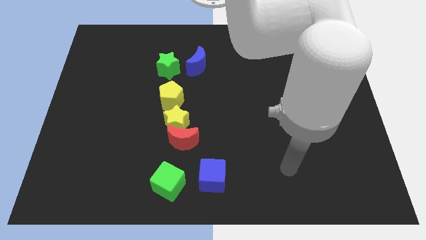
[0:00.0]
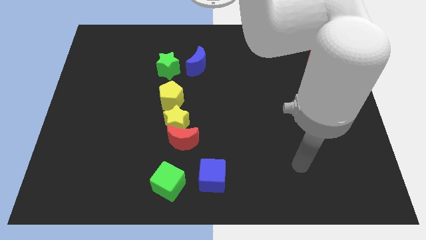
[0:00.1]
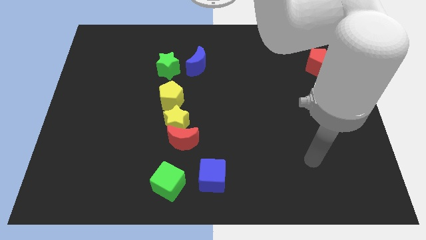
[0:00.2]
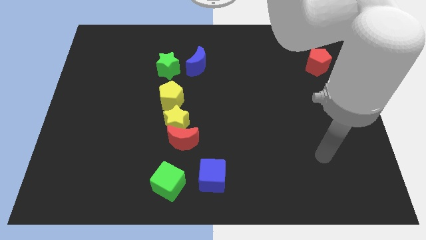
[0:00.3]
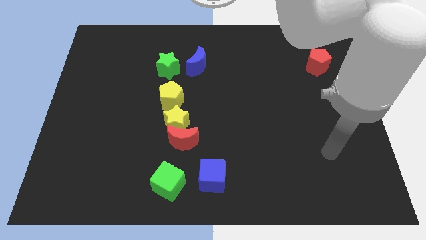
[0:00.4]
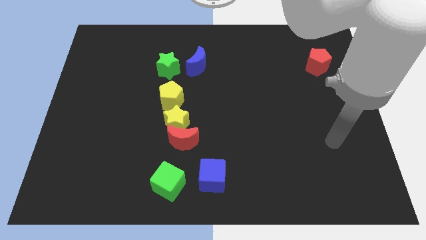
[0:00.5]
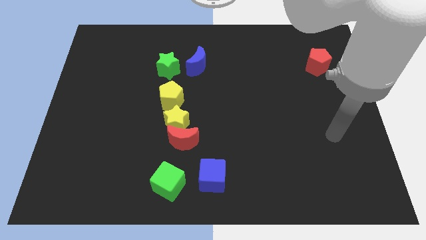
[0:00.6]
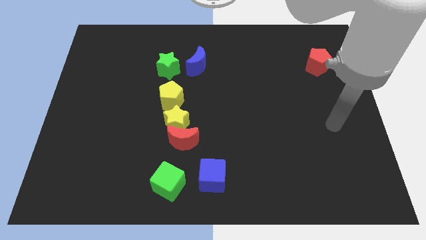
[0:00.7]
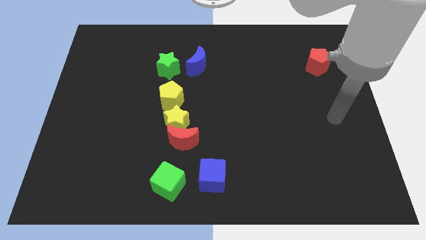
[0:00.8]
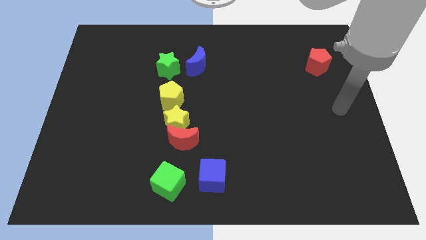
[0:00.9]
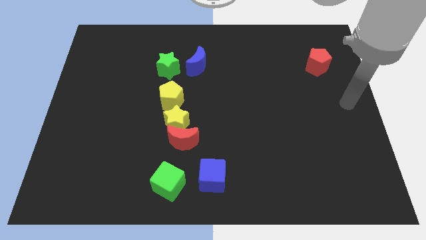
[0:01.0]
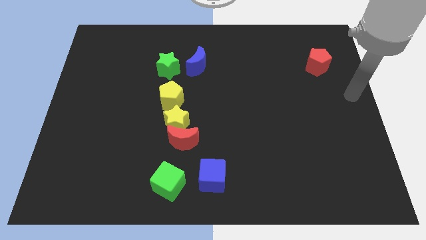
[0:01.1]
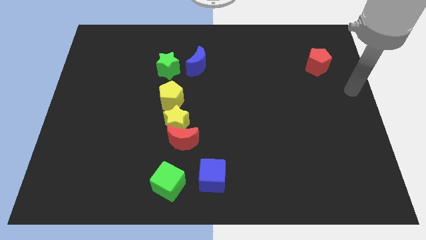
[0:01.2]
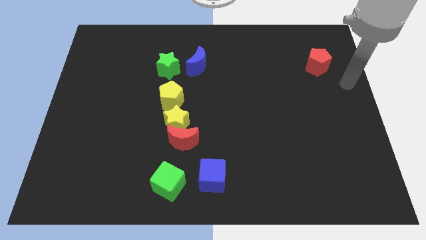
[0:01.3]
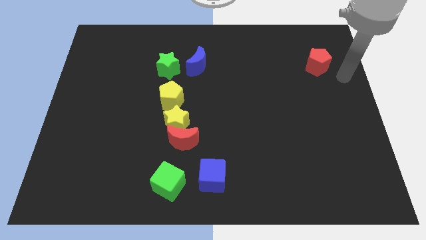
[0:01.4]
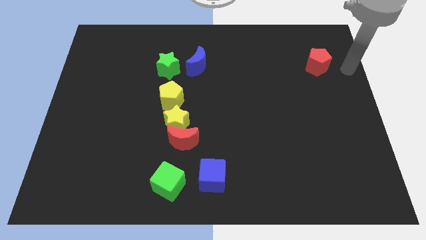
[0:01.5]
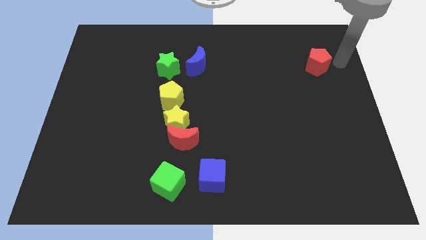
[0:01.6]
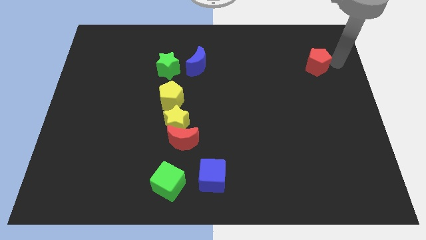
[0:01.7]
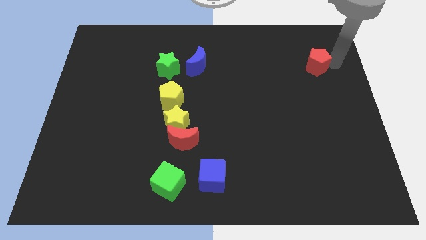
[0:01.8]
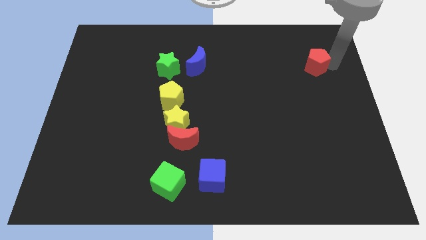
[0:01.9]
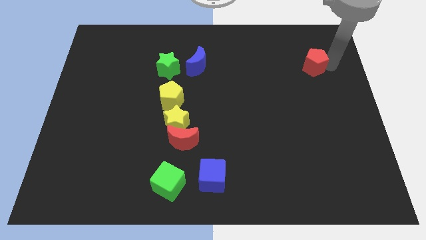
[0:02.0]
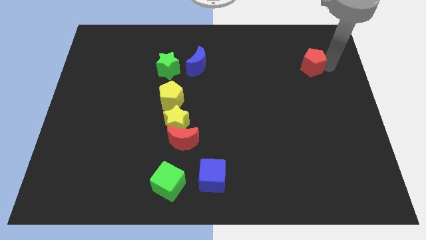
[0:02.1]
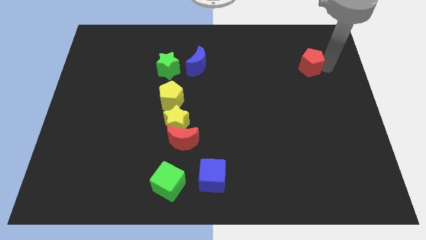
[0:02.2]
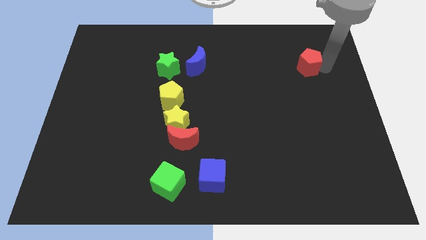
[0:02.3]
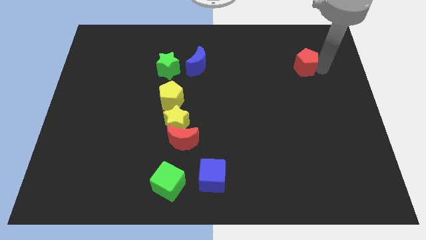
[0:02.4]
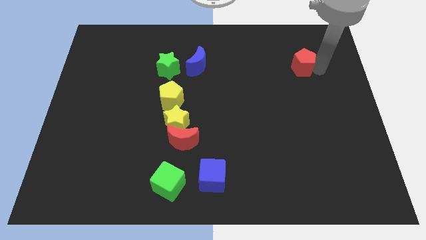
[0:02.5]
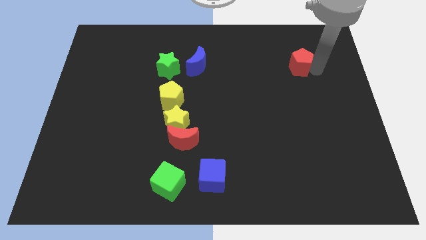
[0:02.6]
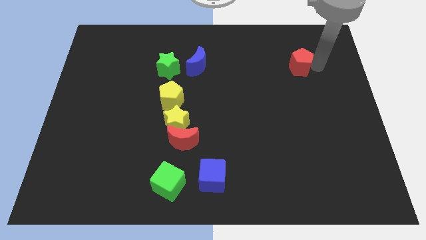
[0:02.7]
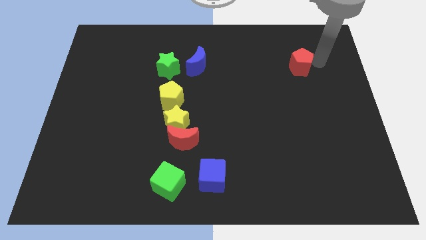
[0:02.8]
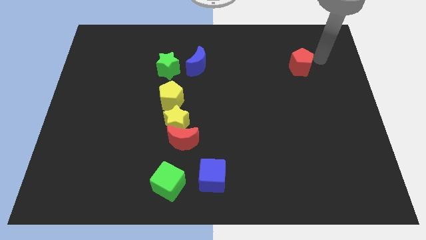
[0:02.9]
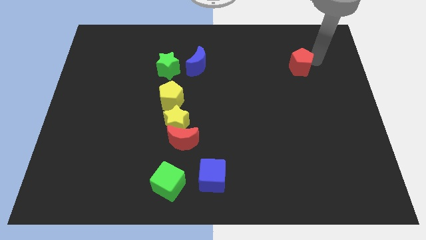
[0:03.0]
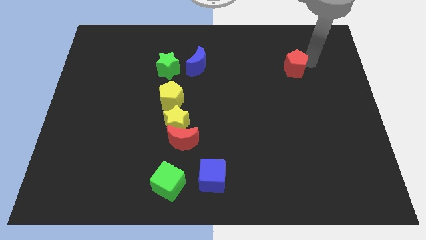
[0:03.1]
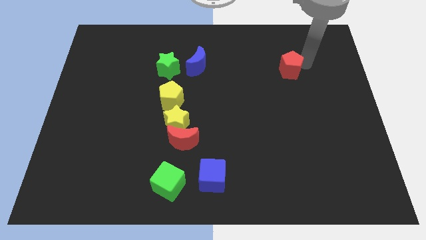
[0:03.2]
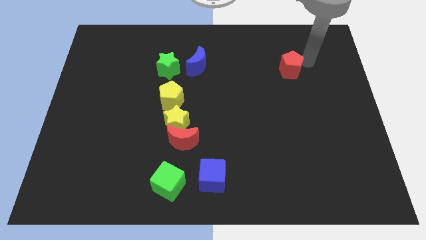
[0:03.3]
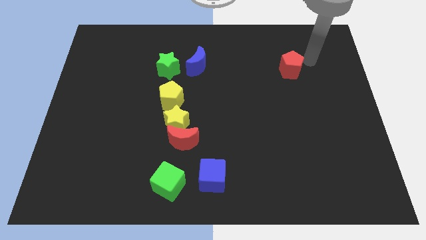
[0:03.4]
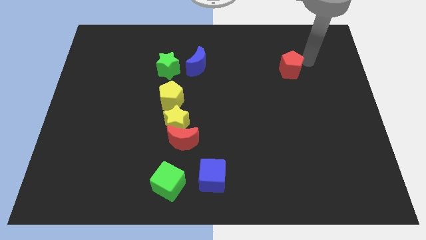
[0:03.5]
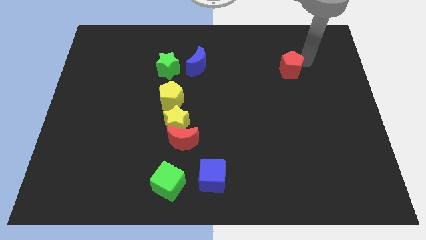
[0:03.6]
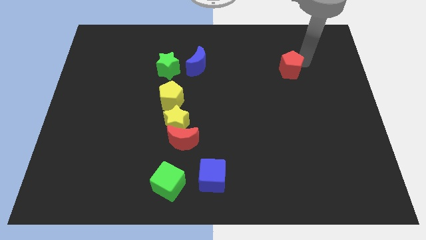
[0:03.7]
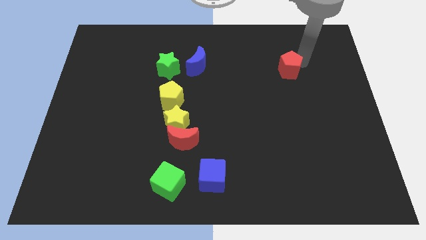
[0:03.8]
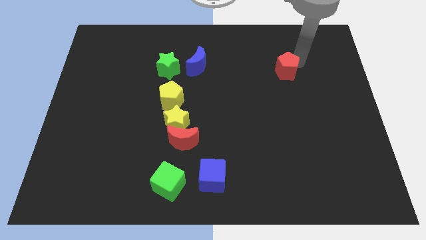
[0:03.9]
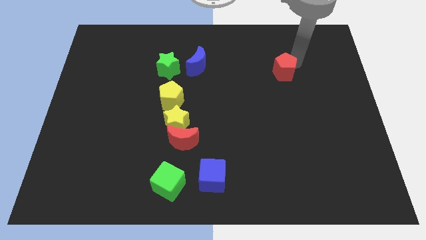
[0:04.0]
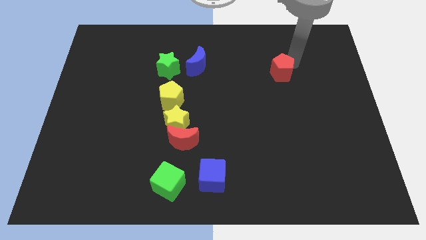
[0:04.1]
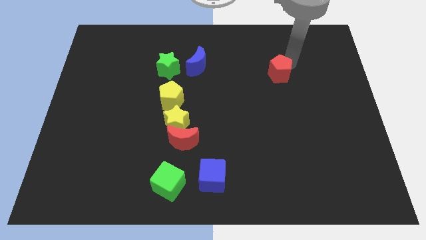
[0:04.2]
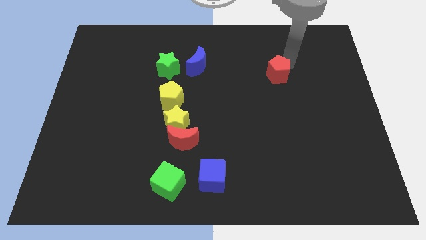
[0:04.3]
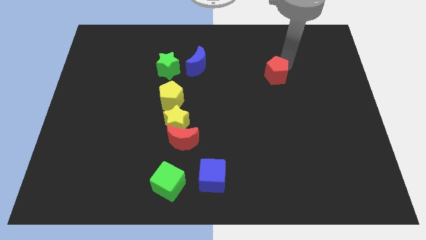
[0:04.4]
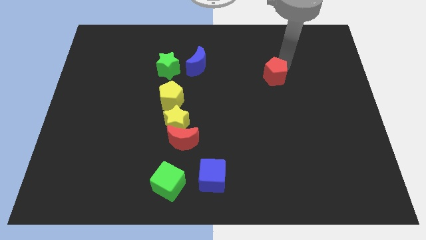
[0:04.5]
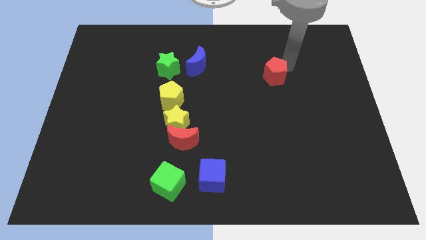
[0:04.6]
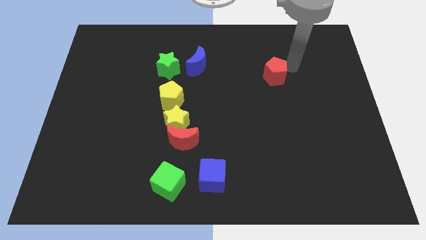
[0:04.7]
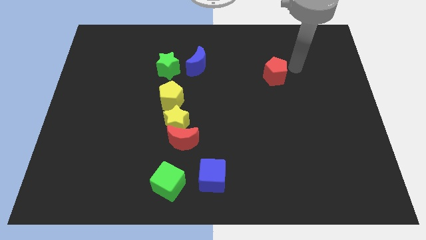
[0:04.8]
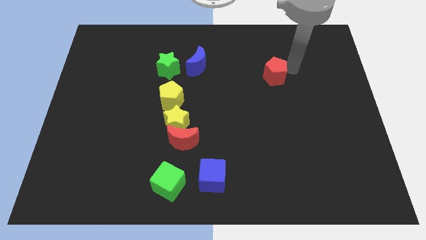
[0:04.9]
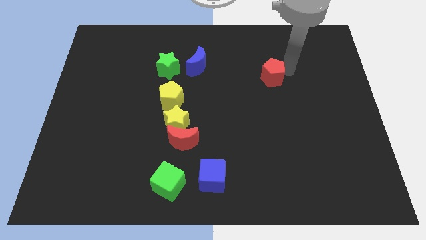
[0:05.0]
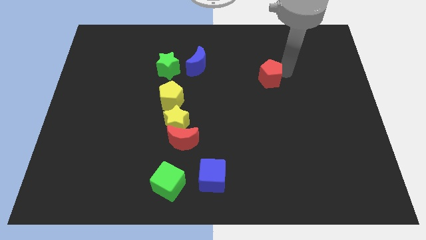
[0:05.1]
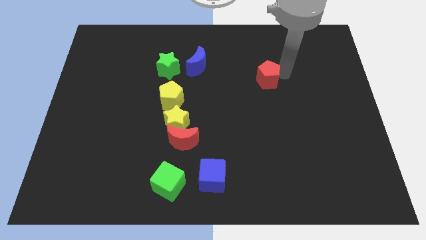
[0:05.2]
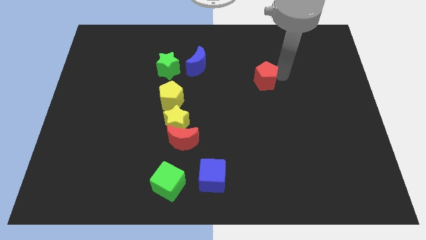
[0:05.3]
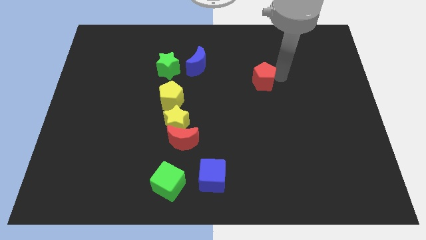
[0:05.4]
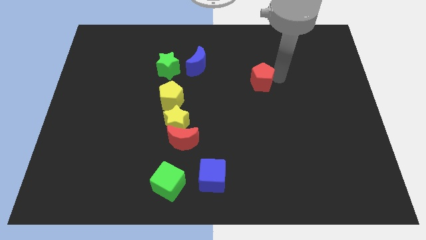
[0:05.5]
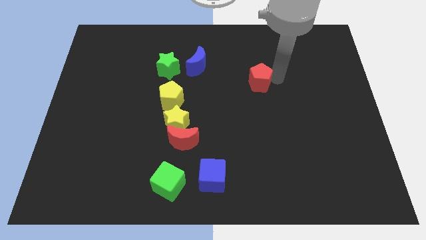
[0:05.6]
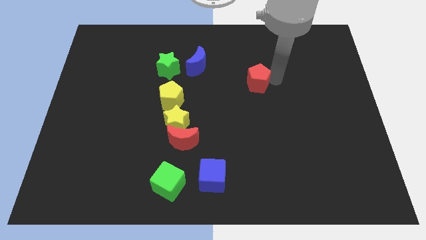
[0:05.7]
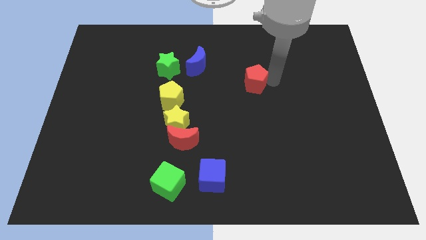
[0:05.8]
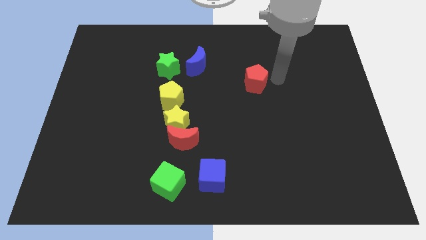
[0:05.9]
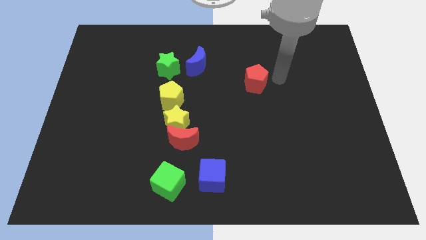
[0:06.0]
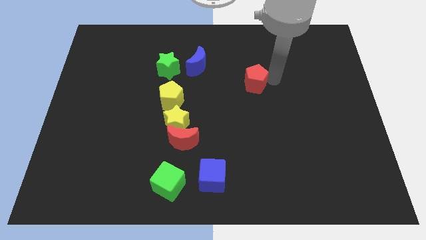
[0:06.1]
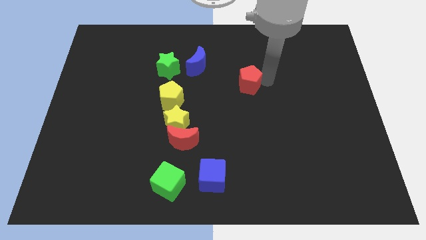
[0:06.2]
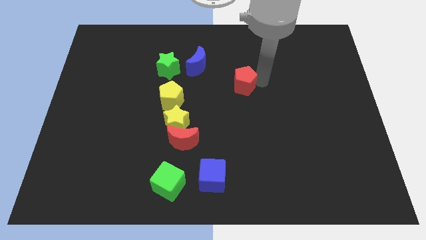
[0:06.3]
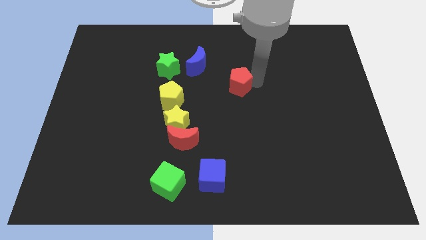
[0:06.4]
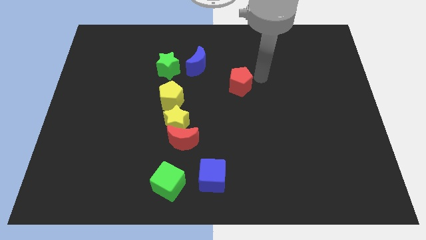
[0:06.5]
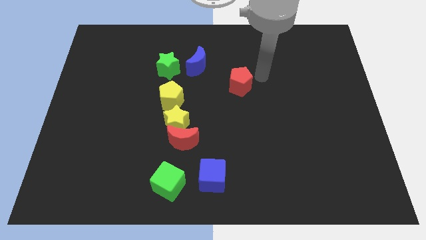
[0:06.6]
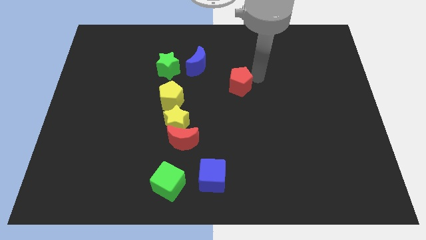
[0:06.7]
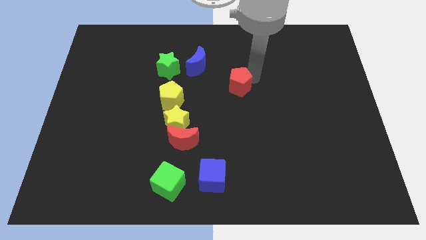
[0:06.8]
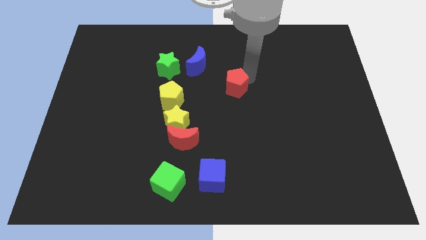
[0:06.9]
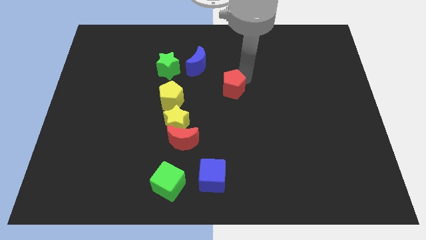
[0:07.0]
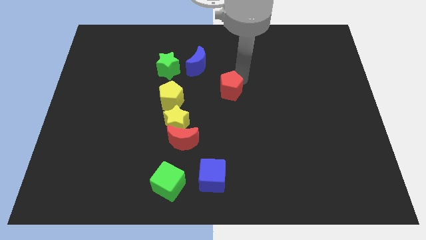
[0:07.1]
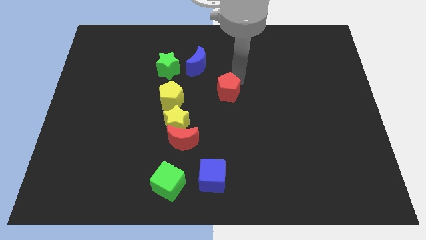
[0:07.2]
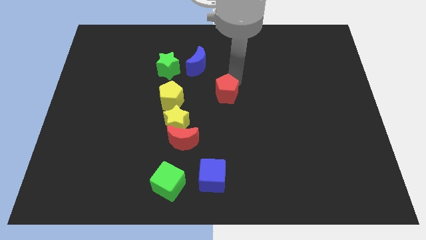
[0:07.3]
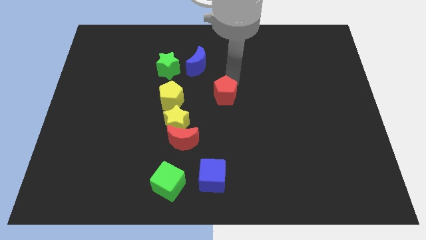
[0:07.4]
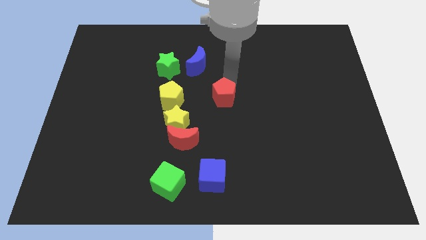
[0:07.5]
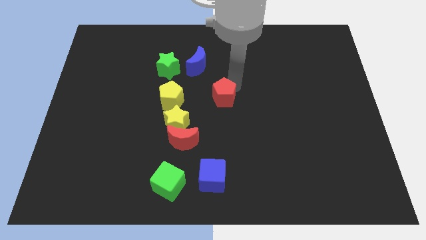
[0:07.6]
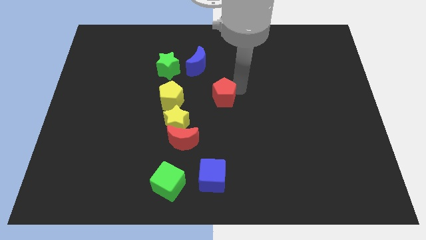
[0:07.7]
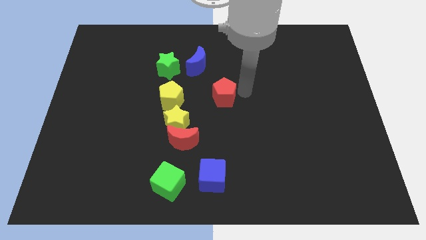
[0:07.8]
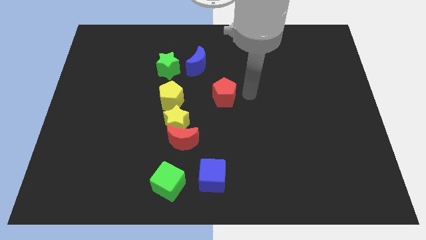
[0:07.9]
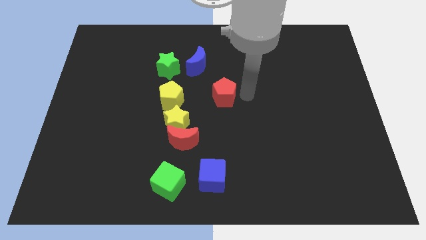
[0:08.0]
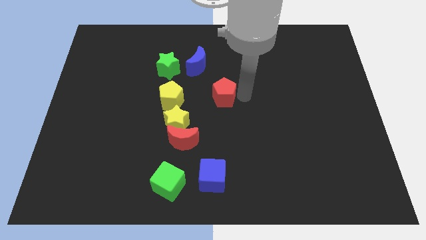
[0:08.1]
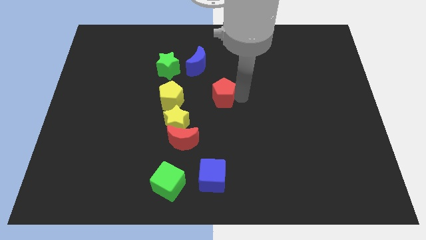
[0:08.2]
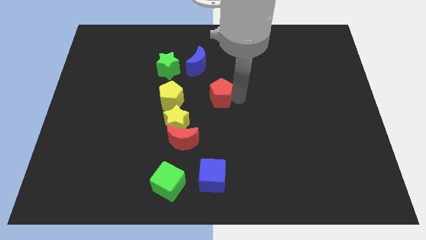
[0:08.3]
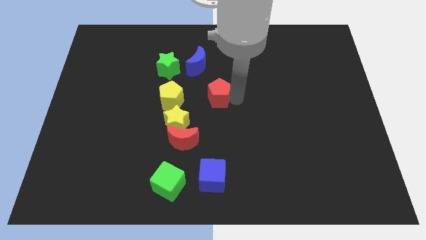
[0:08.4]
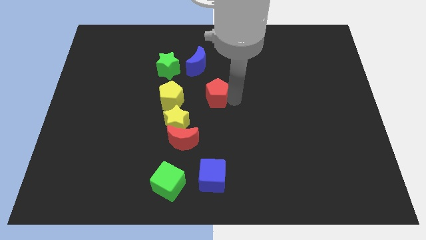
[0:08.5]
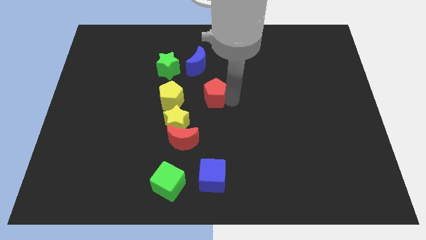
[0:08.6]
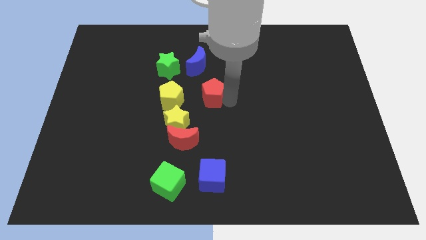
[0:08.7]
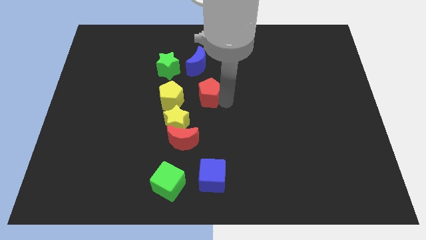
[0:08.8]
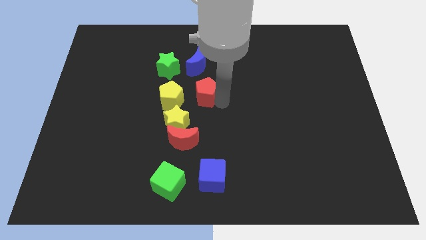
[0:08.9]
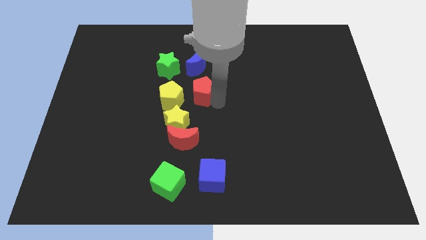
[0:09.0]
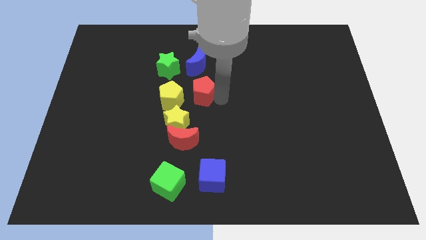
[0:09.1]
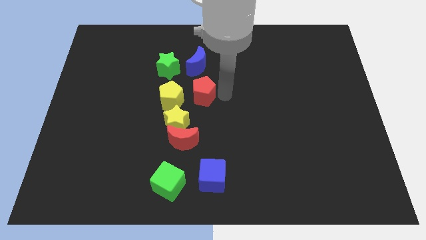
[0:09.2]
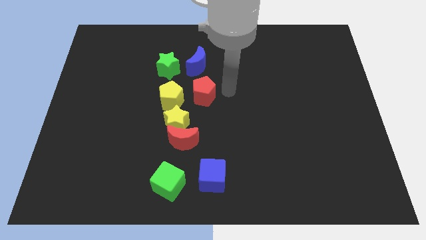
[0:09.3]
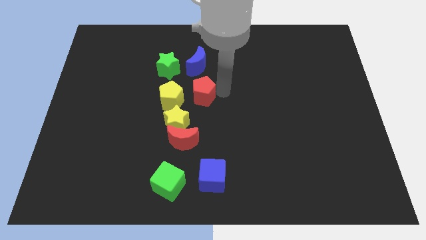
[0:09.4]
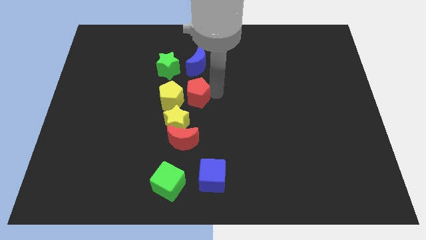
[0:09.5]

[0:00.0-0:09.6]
push the red pentagon close to the yellow pentagon
